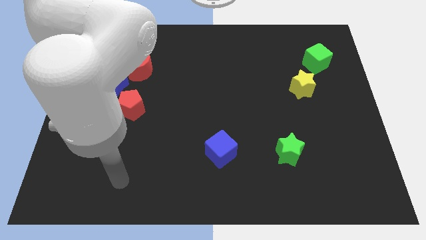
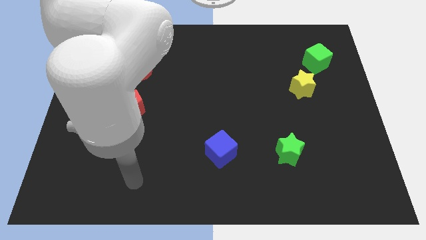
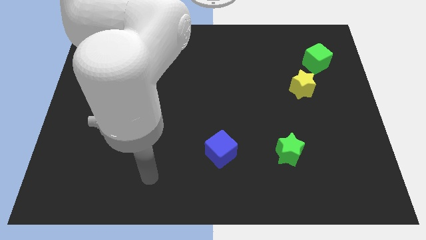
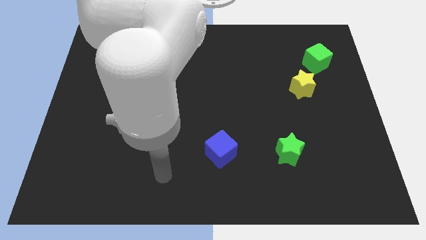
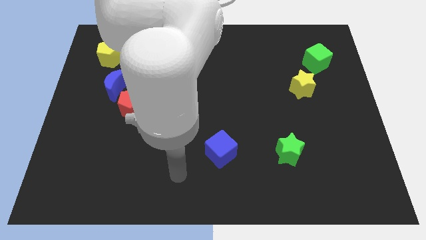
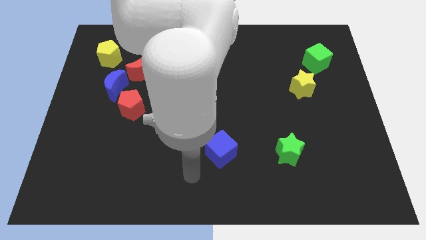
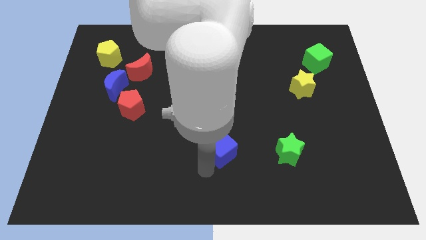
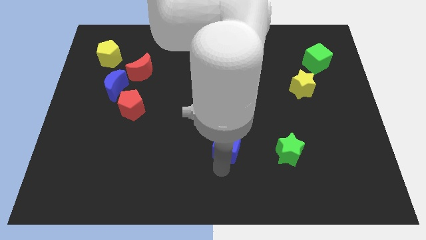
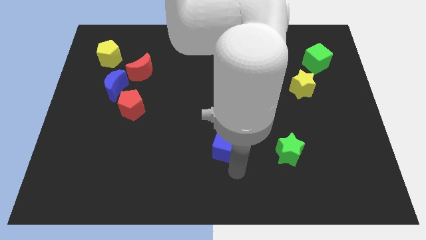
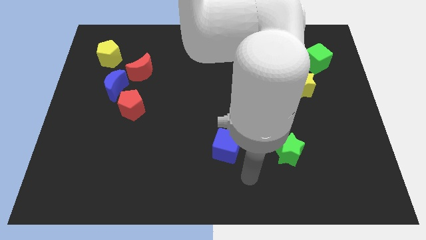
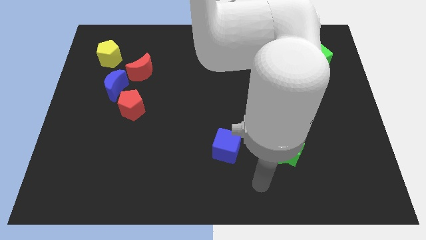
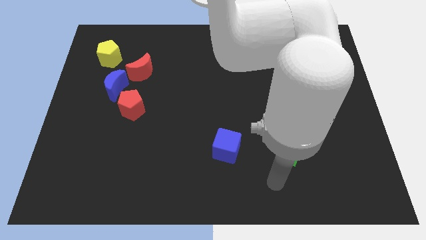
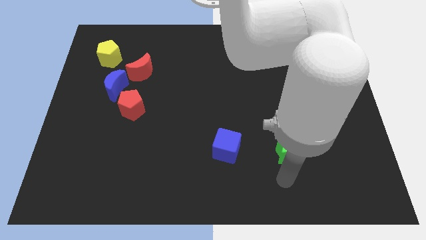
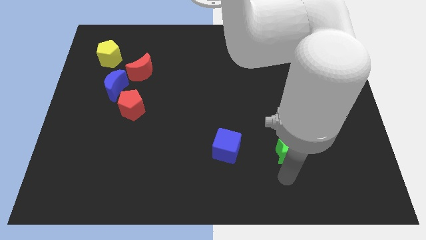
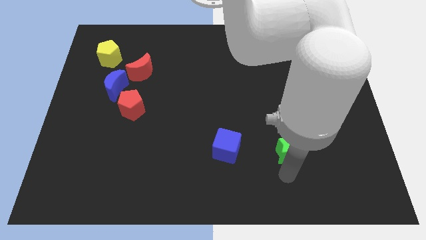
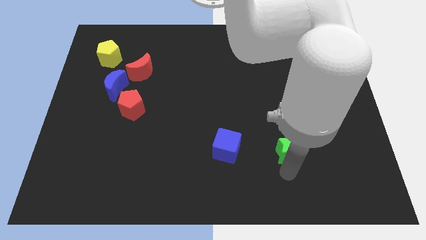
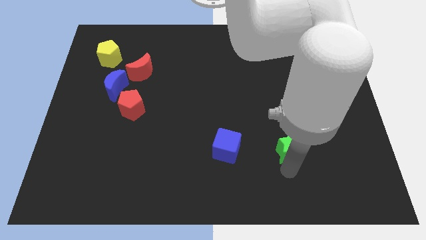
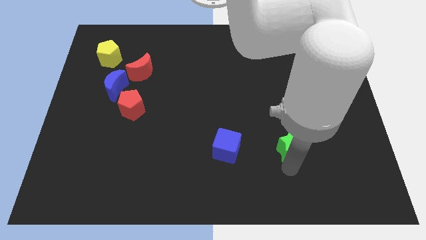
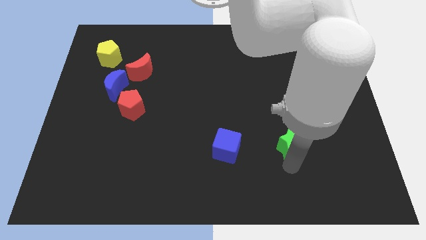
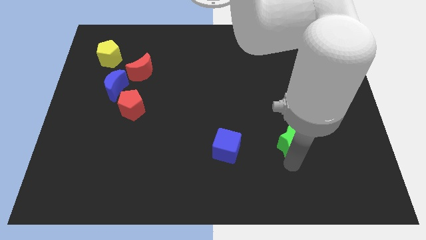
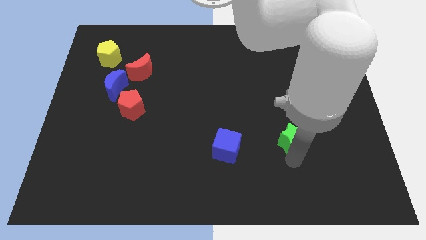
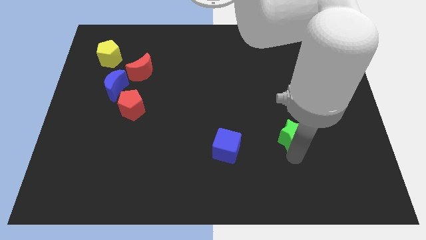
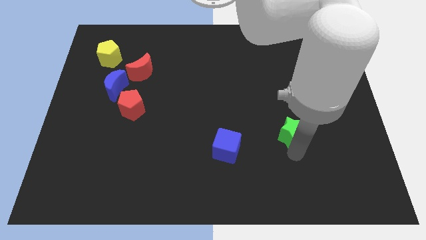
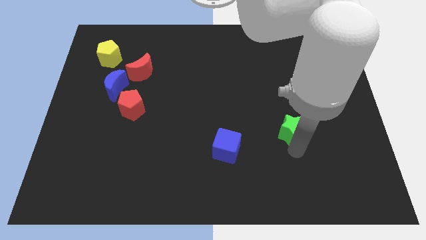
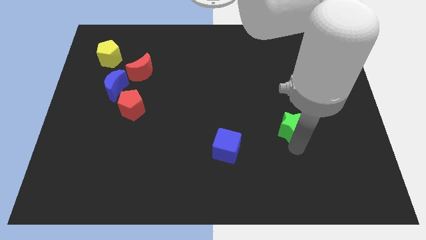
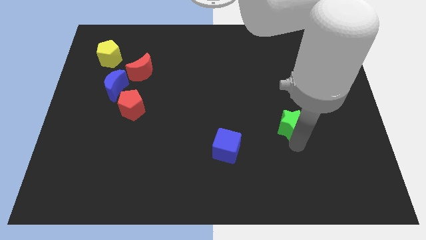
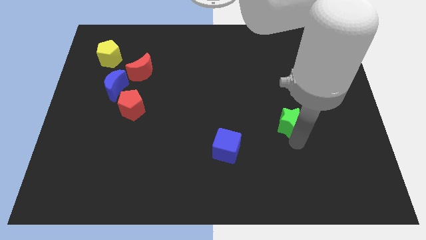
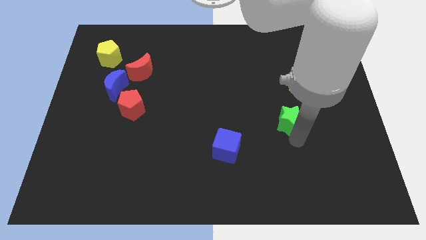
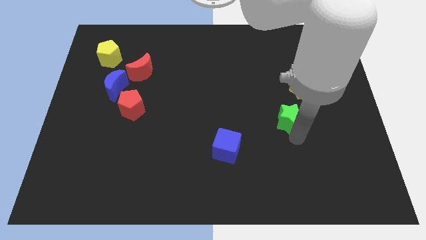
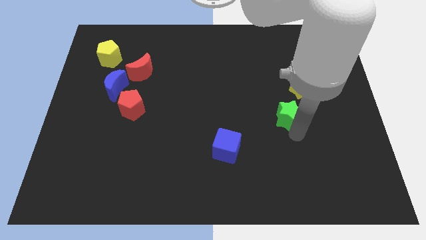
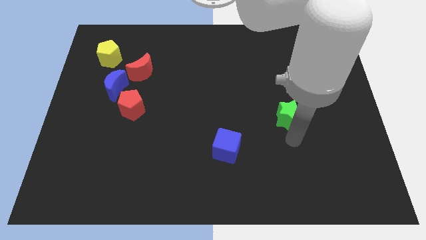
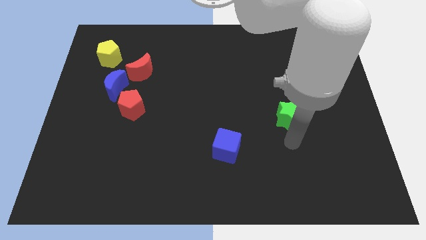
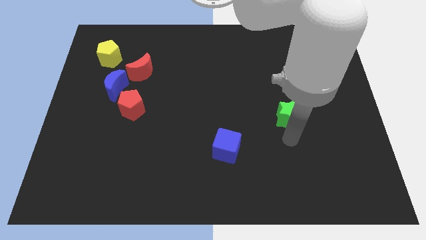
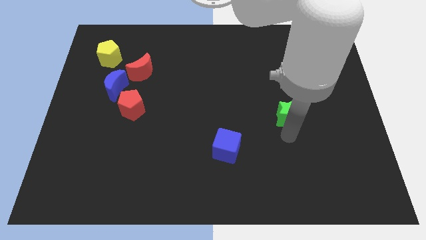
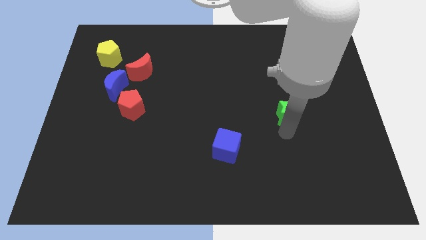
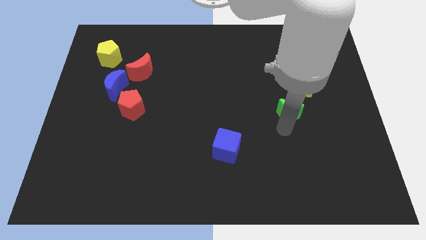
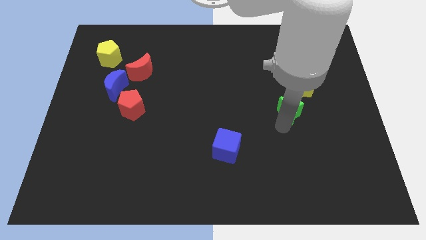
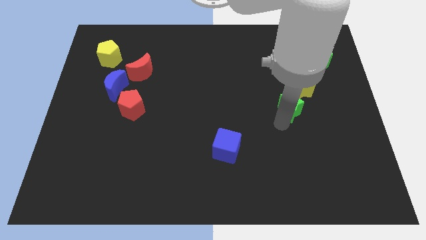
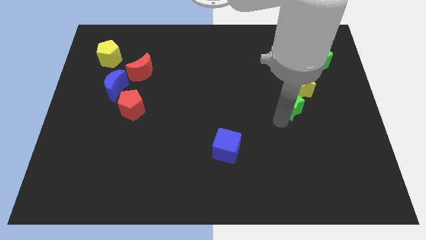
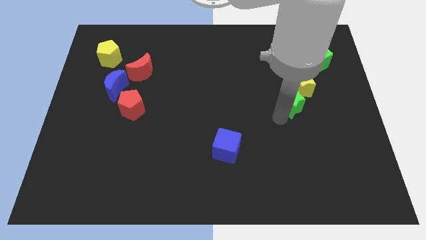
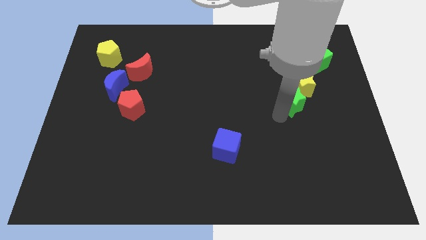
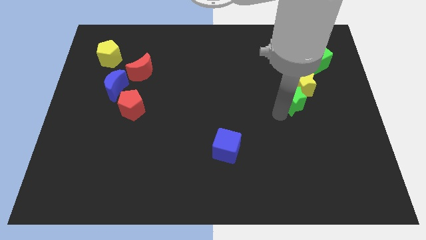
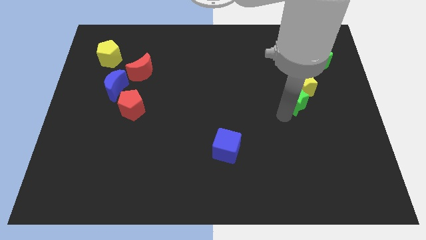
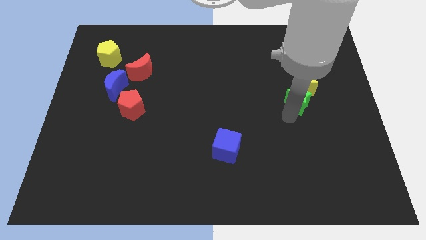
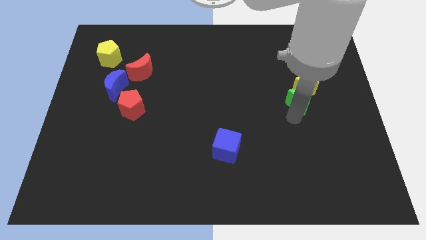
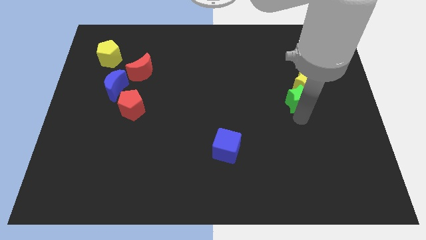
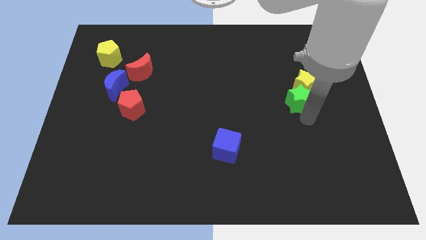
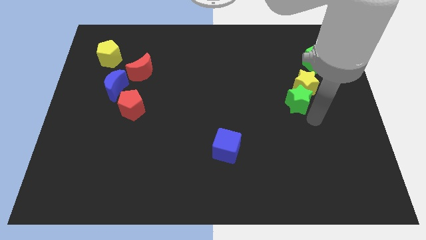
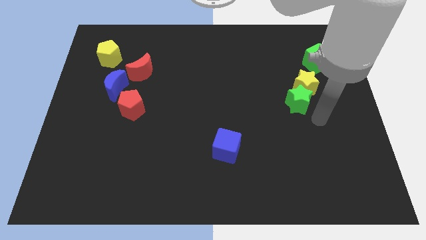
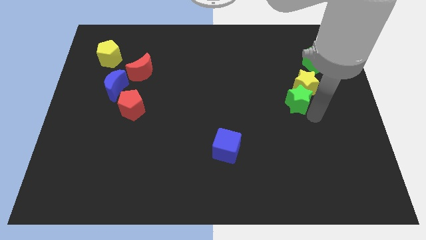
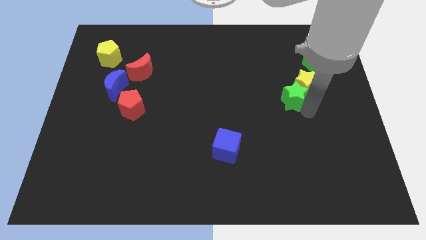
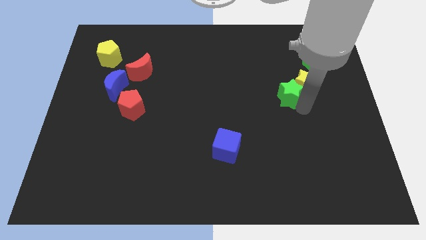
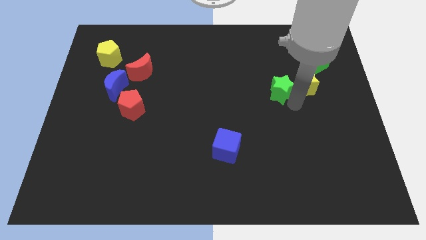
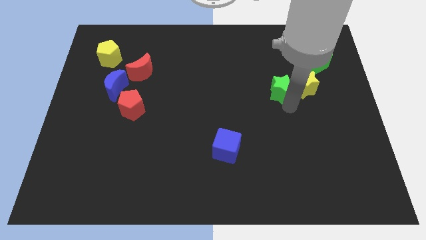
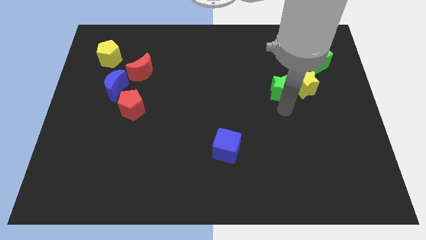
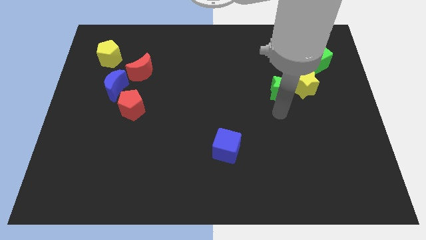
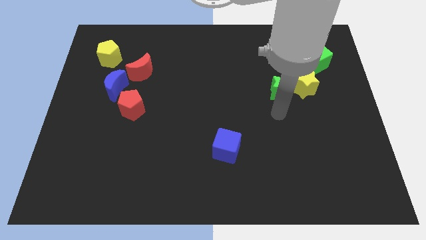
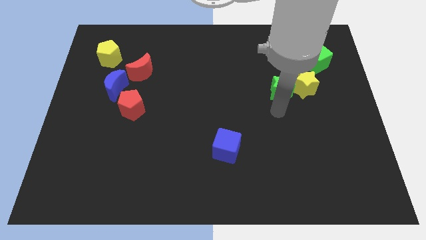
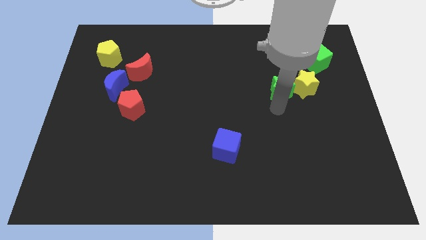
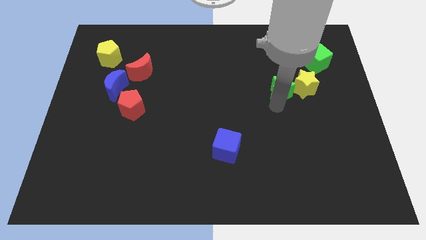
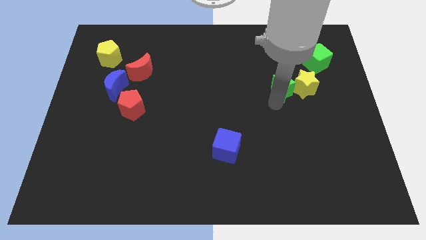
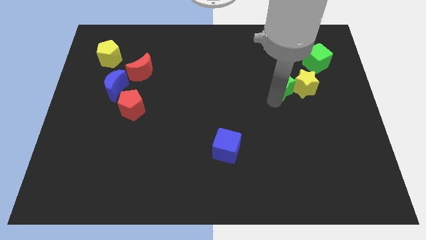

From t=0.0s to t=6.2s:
push the green star diagonally up and to the left of the yellow star

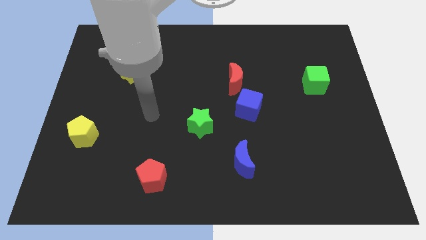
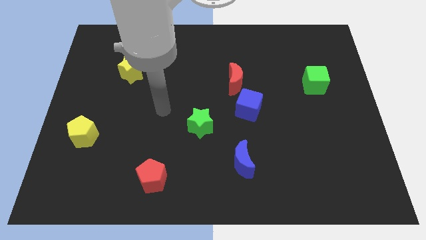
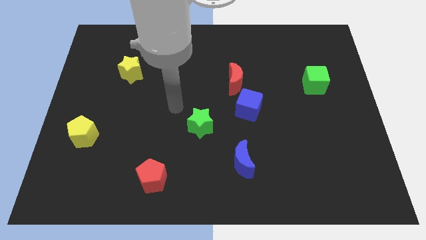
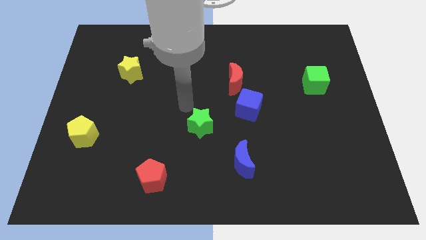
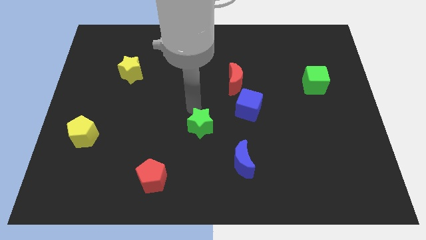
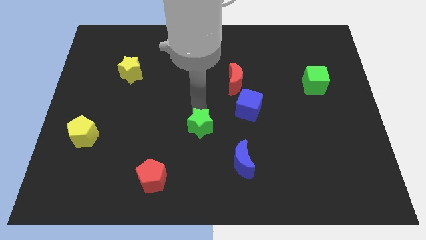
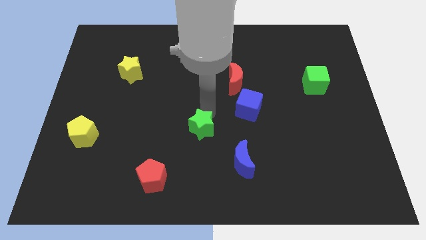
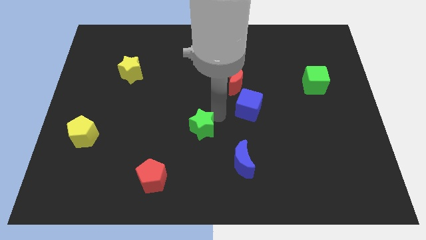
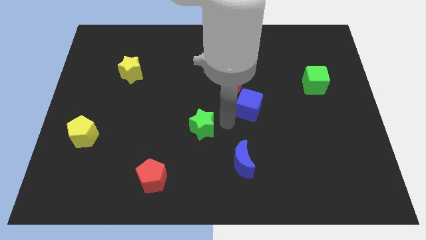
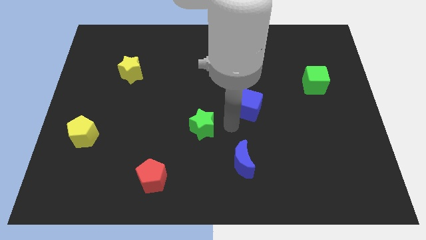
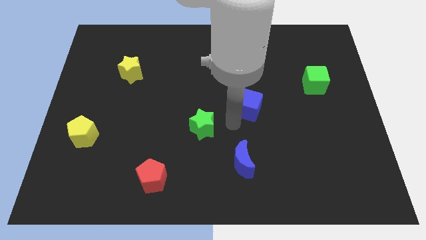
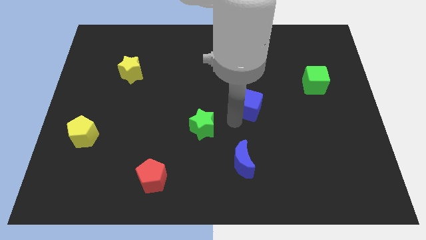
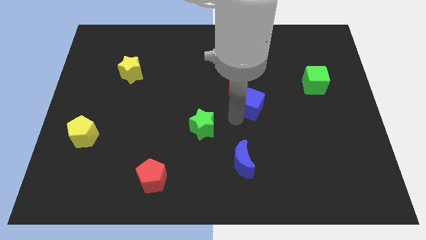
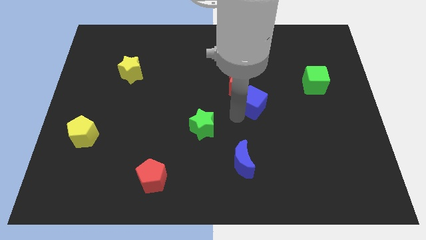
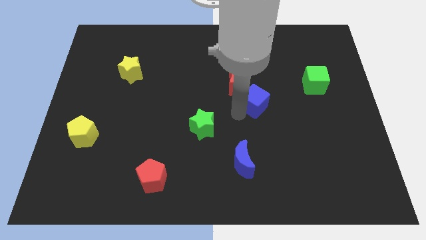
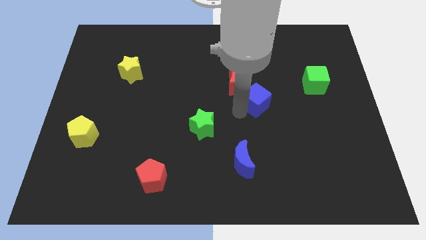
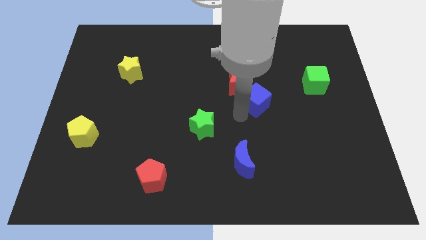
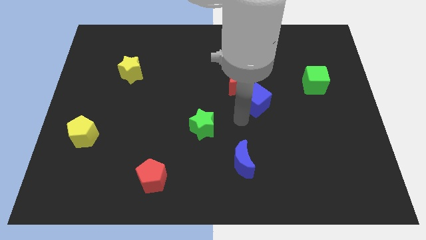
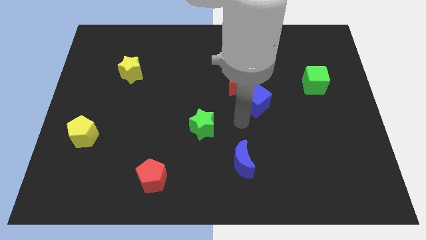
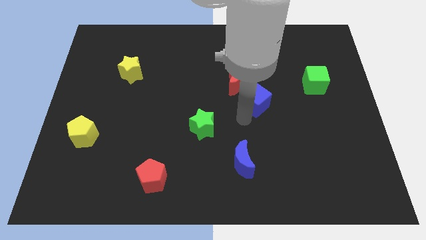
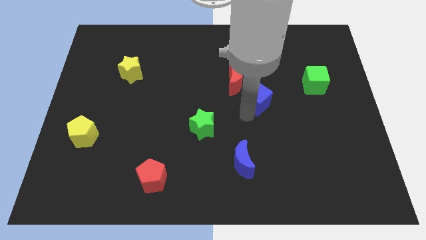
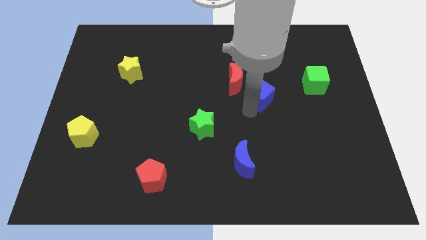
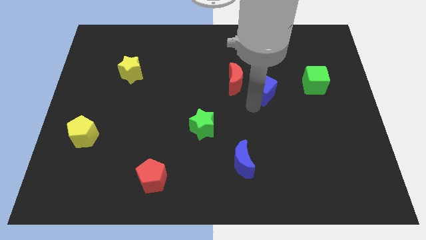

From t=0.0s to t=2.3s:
move the blue cube just left of the green cube
